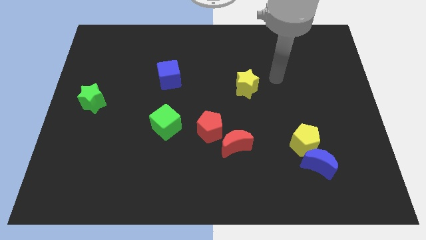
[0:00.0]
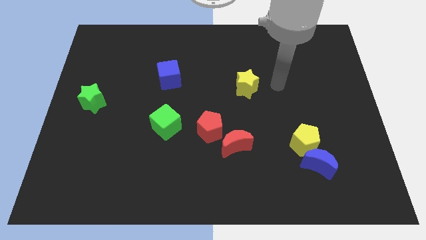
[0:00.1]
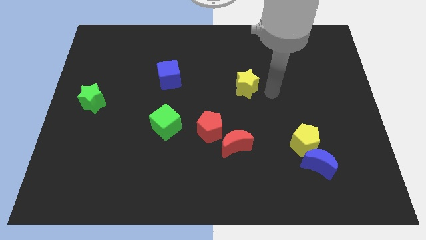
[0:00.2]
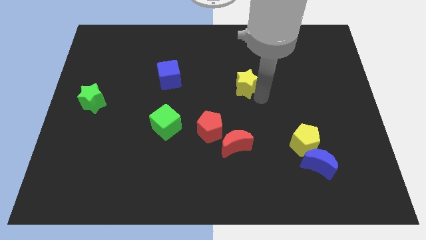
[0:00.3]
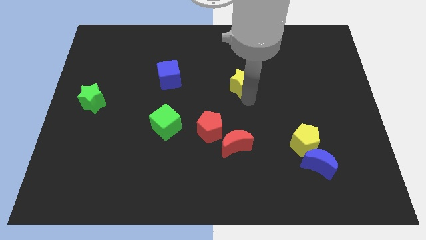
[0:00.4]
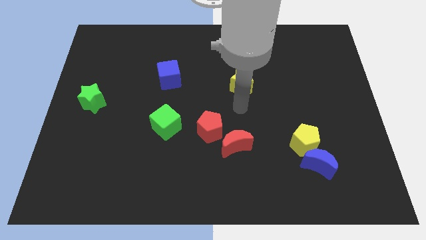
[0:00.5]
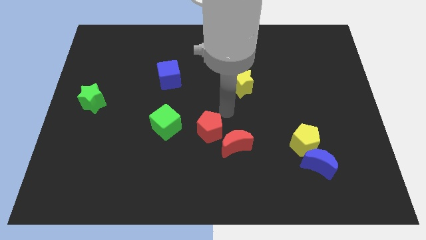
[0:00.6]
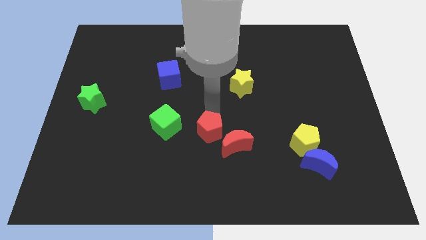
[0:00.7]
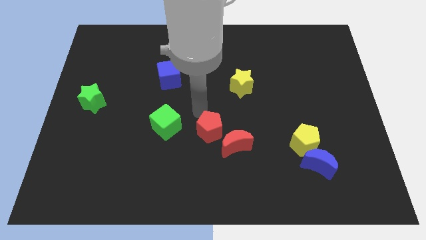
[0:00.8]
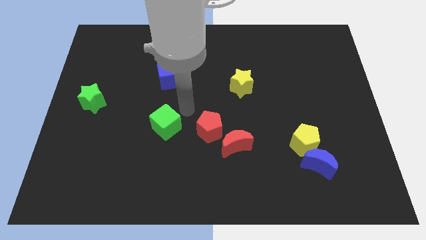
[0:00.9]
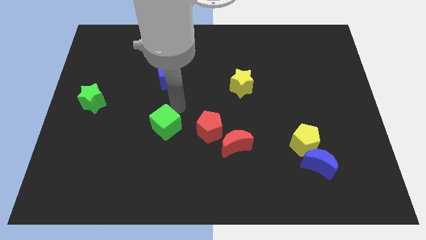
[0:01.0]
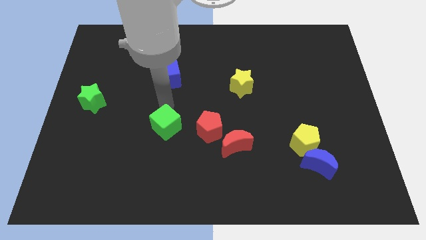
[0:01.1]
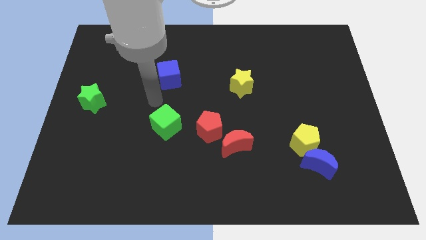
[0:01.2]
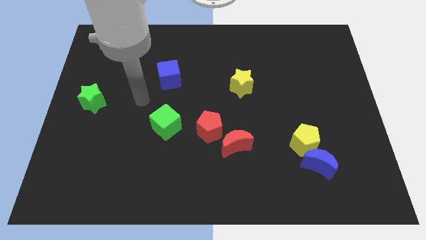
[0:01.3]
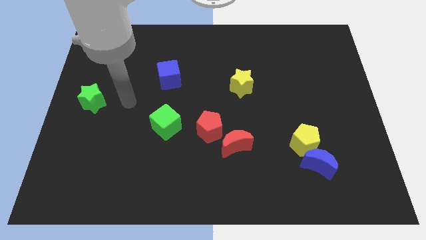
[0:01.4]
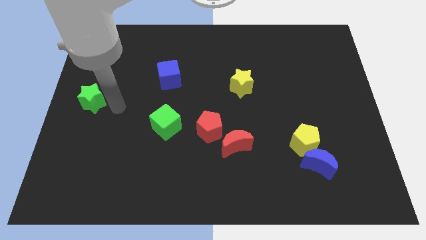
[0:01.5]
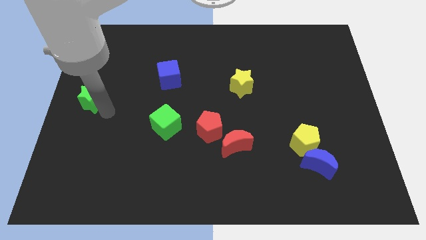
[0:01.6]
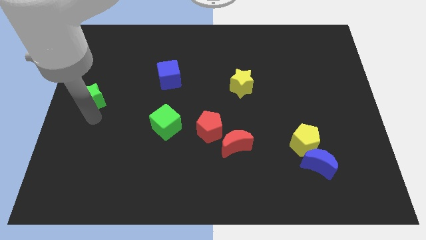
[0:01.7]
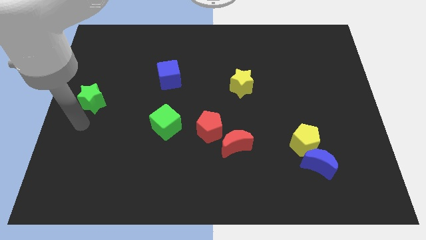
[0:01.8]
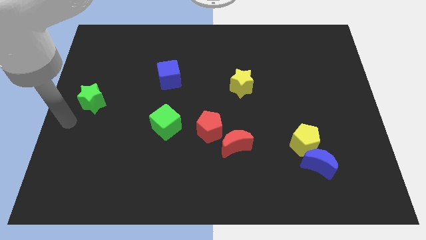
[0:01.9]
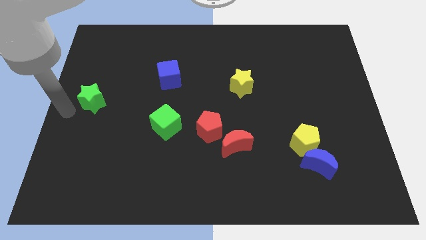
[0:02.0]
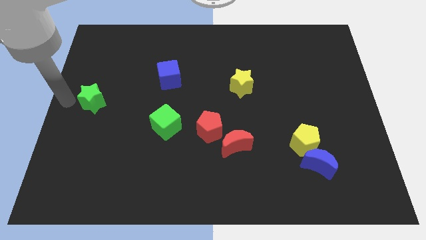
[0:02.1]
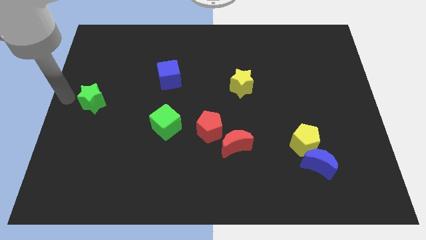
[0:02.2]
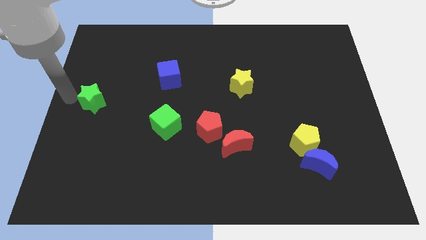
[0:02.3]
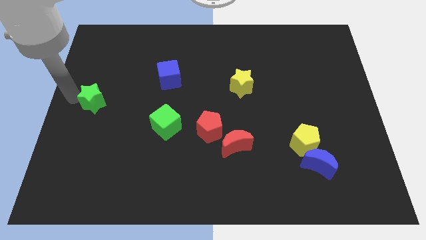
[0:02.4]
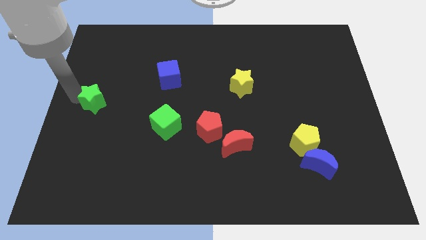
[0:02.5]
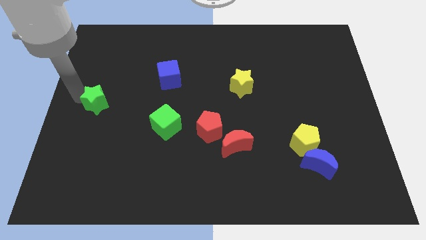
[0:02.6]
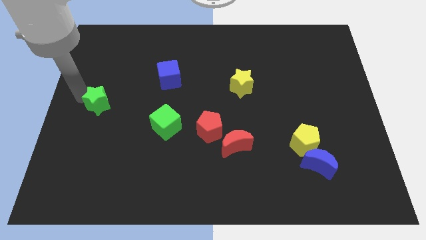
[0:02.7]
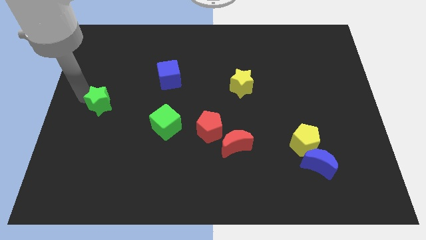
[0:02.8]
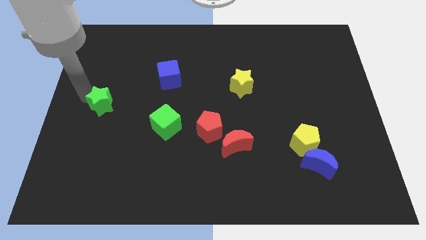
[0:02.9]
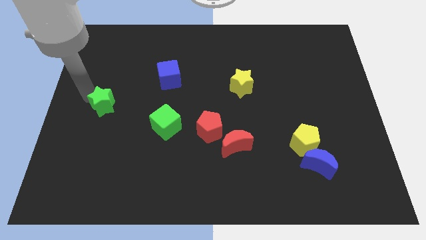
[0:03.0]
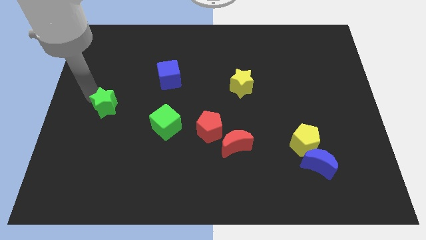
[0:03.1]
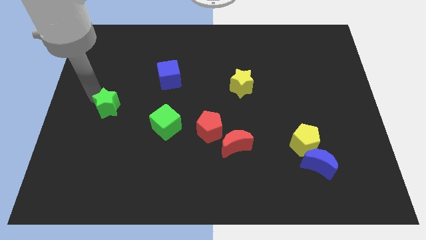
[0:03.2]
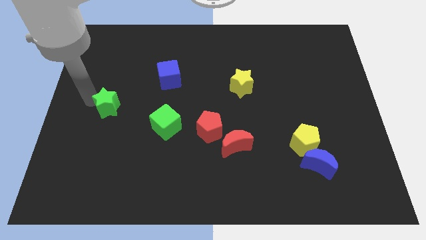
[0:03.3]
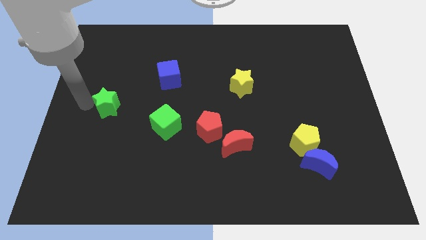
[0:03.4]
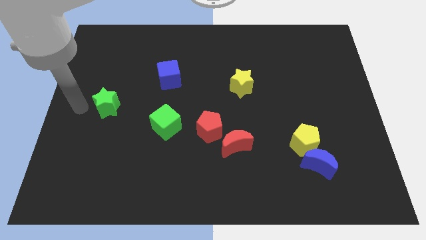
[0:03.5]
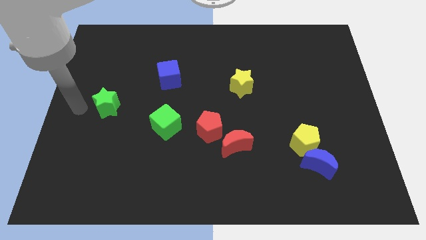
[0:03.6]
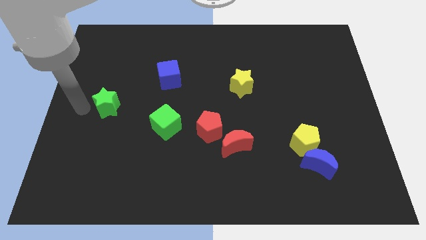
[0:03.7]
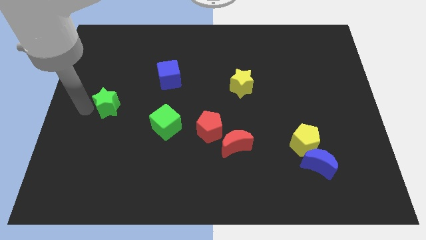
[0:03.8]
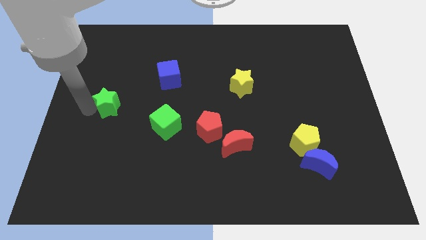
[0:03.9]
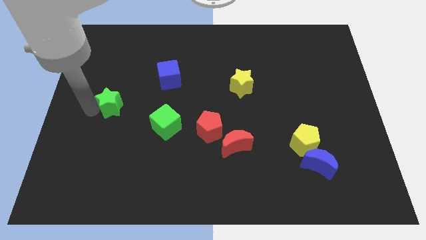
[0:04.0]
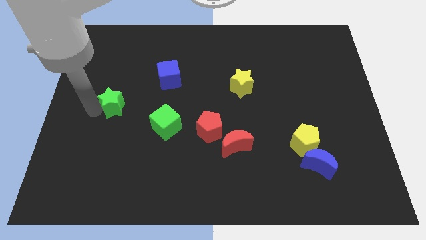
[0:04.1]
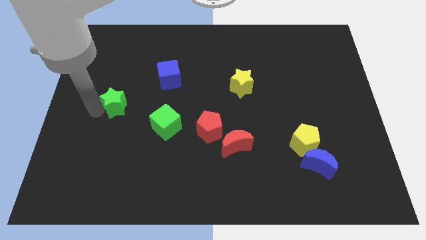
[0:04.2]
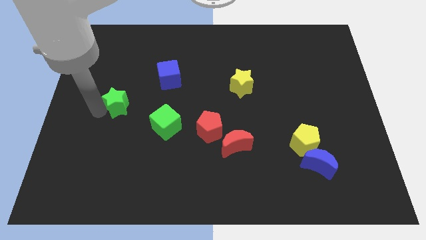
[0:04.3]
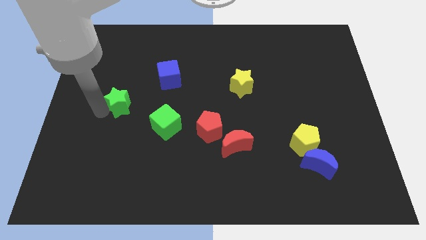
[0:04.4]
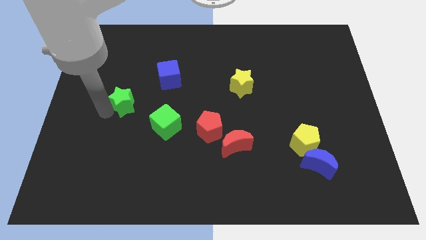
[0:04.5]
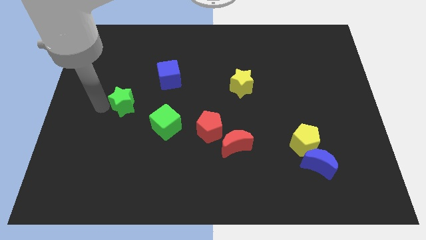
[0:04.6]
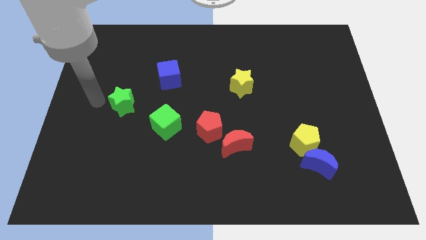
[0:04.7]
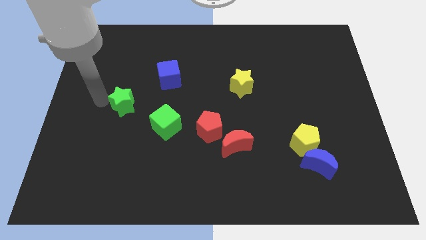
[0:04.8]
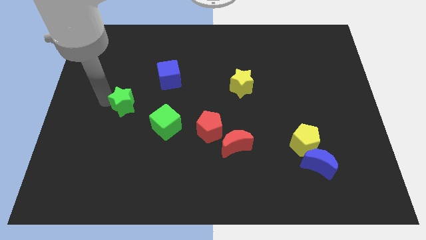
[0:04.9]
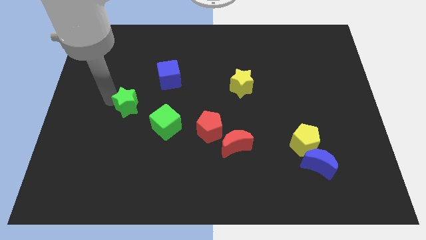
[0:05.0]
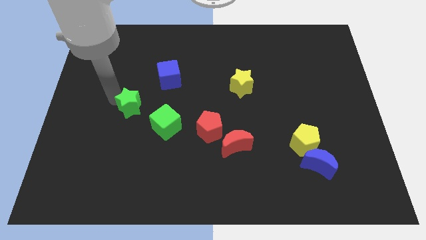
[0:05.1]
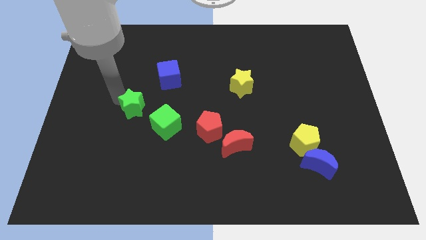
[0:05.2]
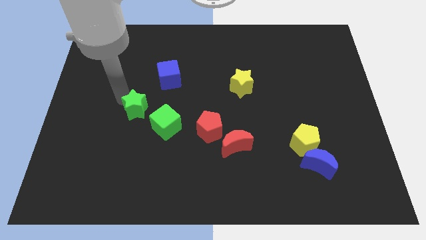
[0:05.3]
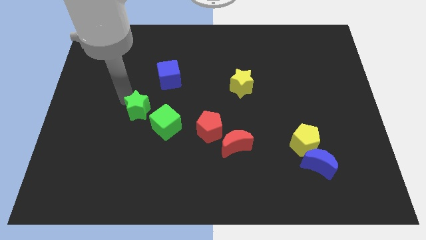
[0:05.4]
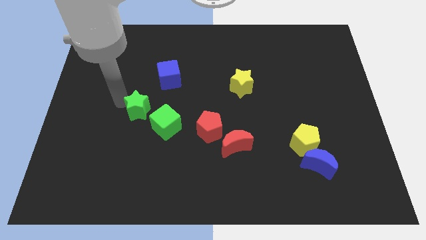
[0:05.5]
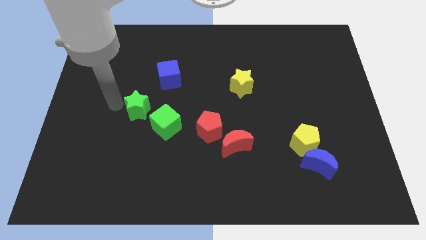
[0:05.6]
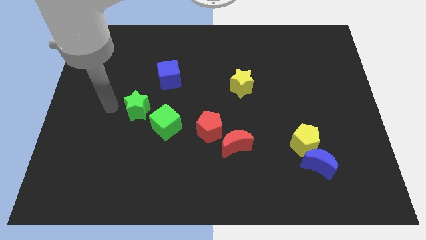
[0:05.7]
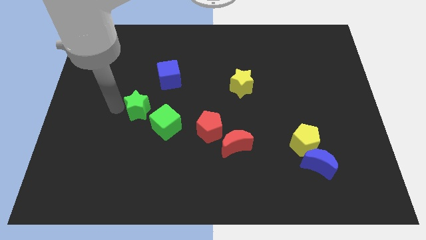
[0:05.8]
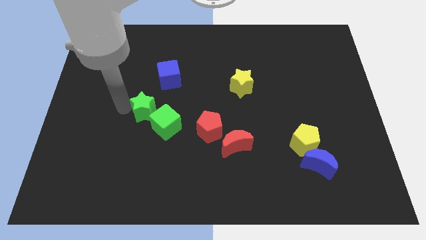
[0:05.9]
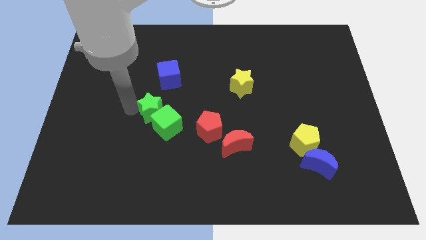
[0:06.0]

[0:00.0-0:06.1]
push the green star below the blue cube
